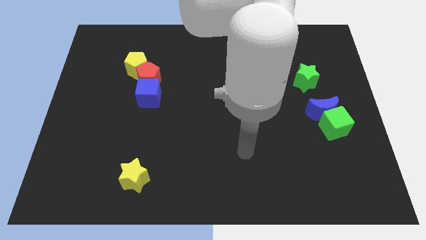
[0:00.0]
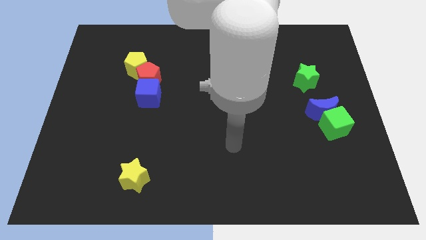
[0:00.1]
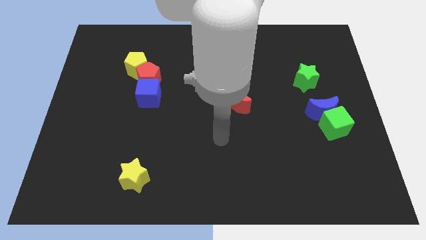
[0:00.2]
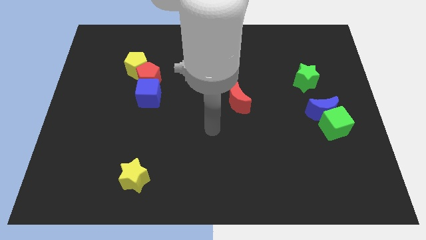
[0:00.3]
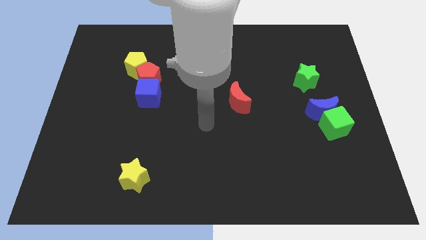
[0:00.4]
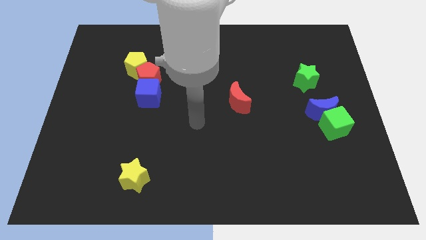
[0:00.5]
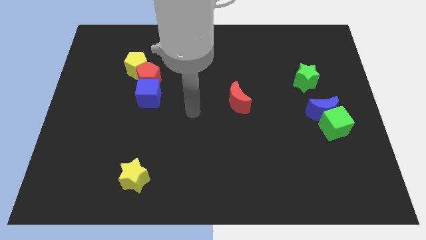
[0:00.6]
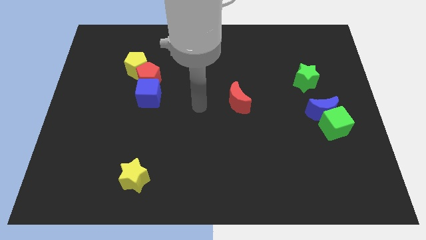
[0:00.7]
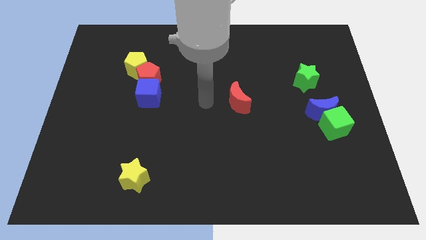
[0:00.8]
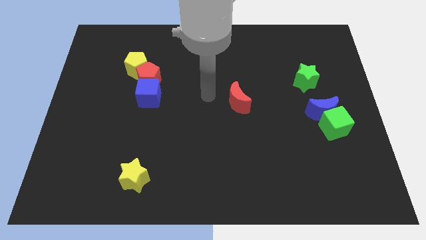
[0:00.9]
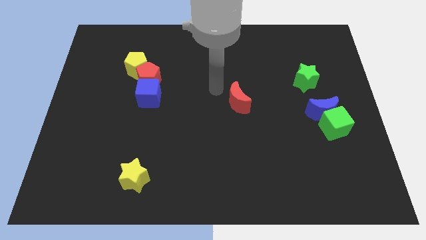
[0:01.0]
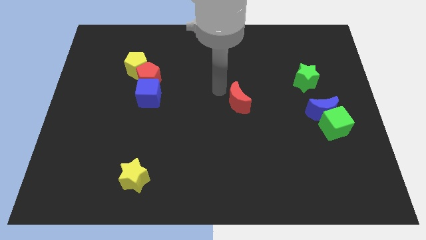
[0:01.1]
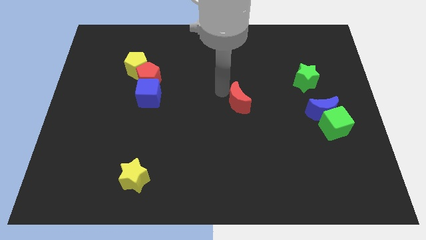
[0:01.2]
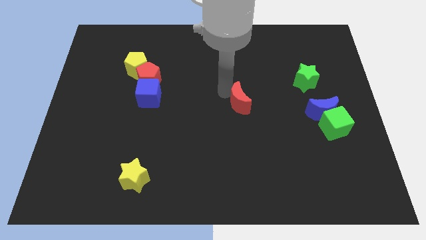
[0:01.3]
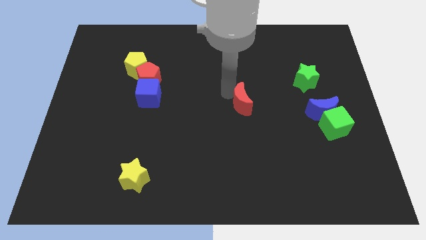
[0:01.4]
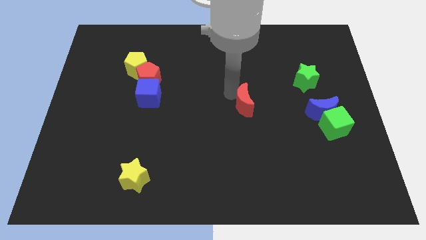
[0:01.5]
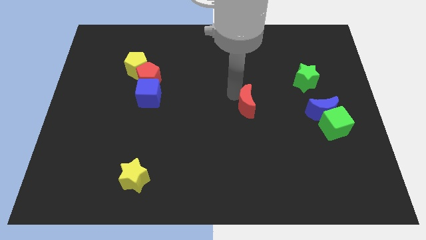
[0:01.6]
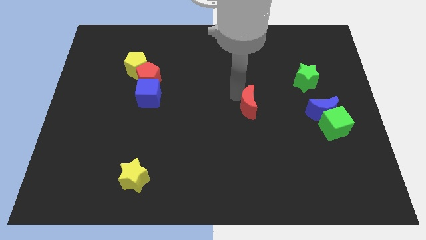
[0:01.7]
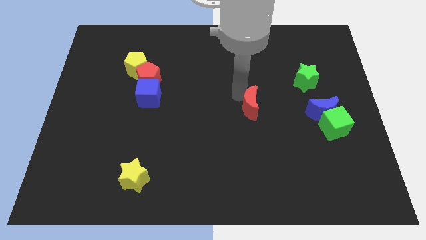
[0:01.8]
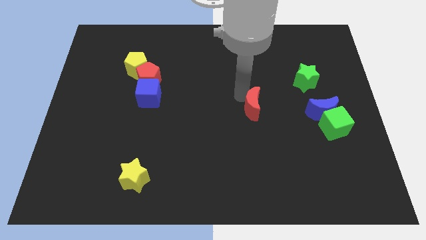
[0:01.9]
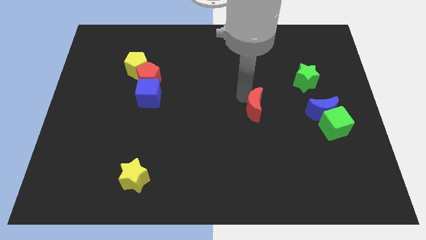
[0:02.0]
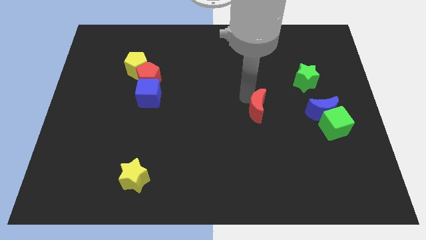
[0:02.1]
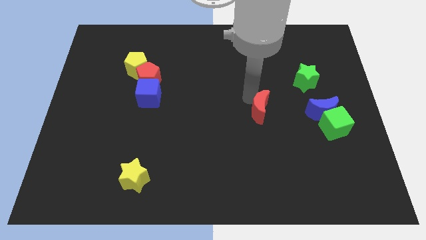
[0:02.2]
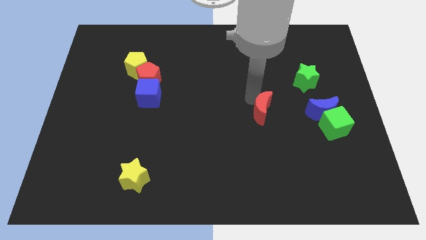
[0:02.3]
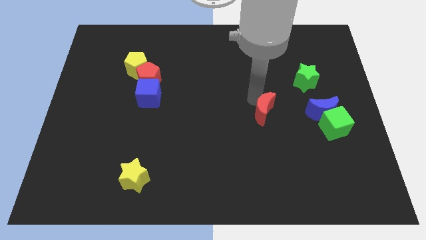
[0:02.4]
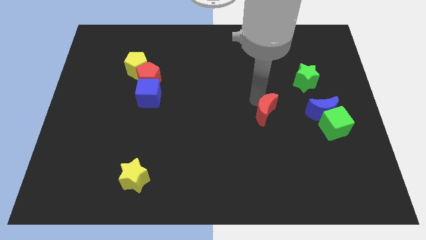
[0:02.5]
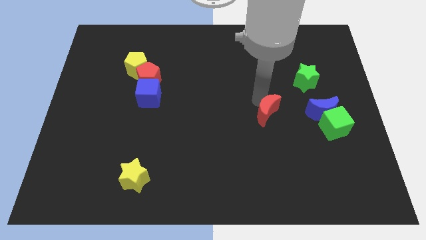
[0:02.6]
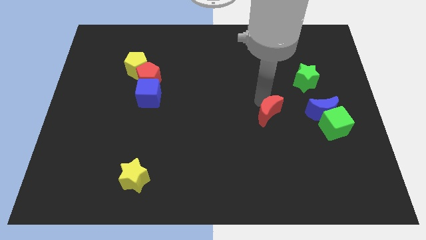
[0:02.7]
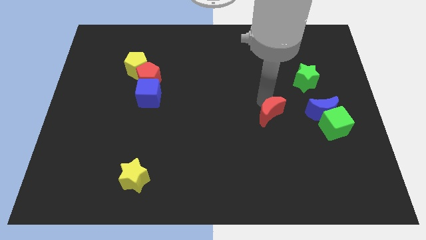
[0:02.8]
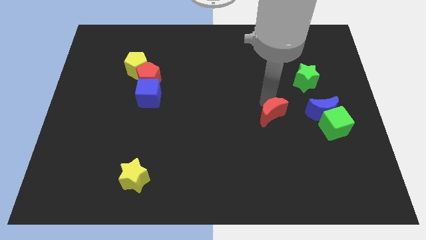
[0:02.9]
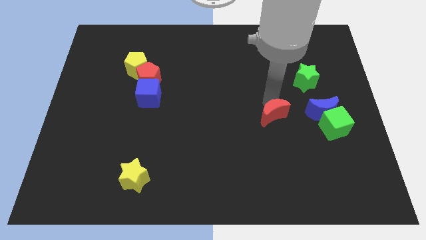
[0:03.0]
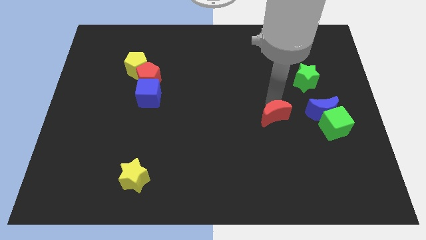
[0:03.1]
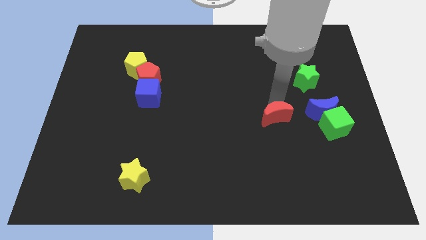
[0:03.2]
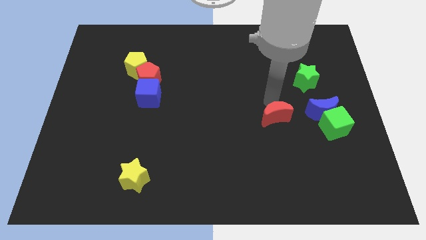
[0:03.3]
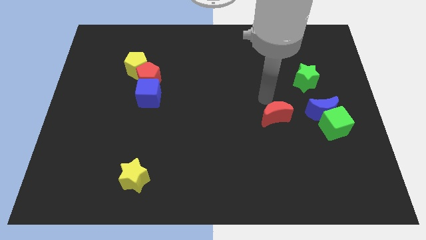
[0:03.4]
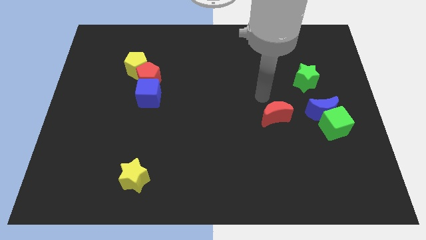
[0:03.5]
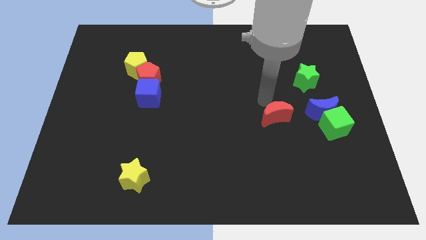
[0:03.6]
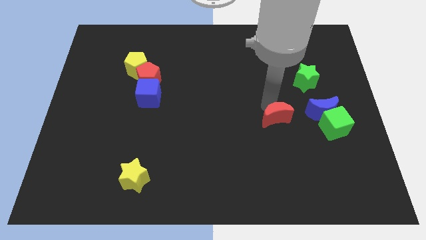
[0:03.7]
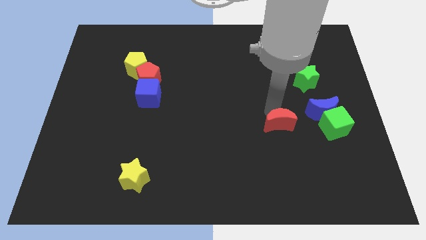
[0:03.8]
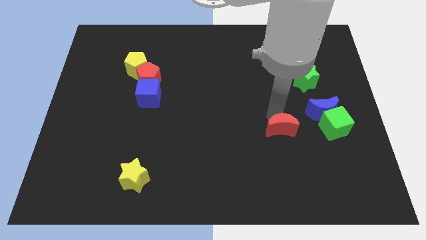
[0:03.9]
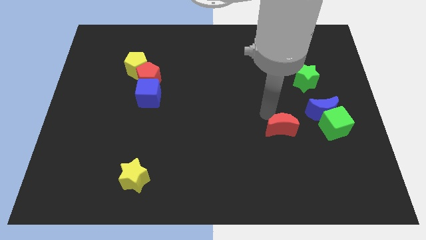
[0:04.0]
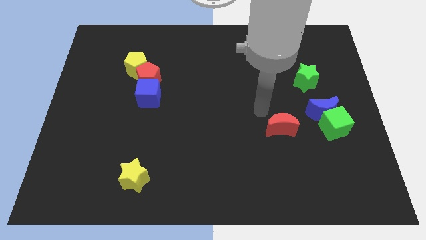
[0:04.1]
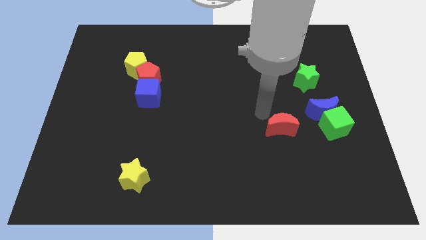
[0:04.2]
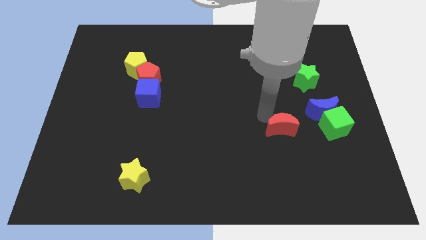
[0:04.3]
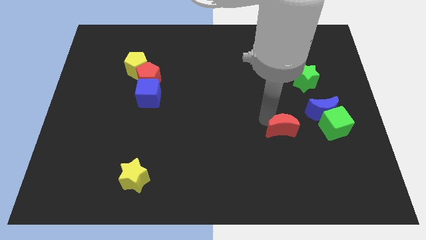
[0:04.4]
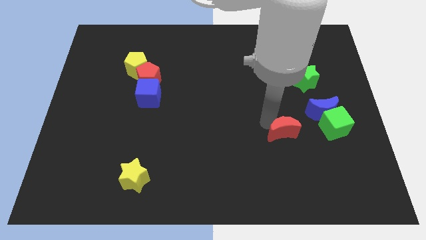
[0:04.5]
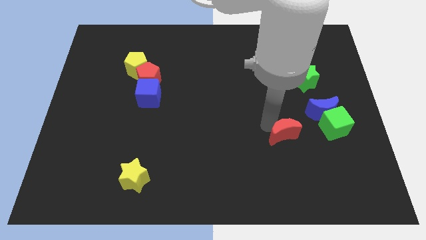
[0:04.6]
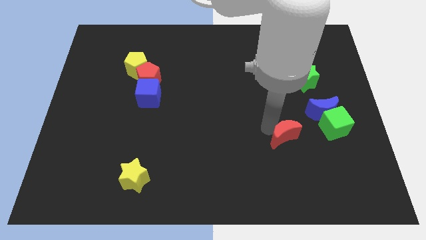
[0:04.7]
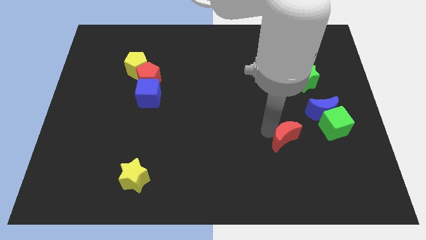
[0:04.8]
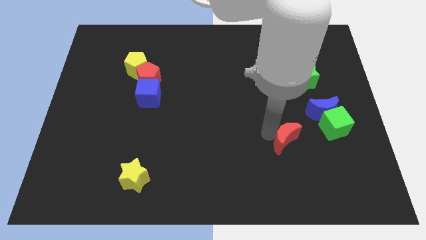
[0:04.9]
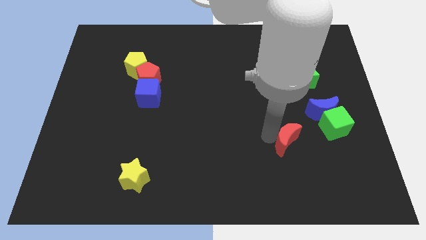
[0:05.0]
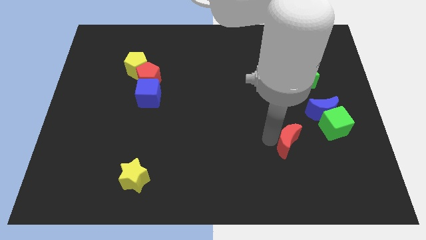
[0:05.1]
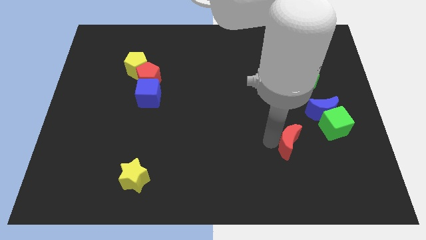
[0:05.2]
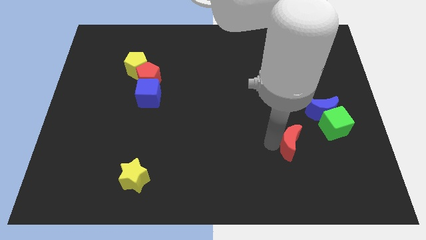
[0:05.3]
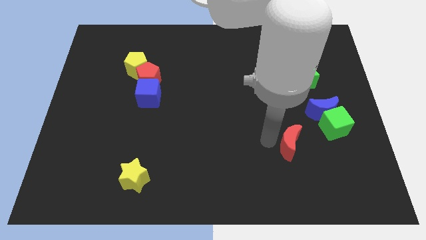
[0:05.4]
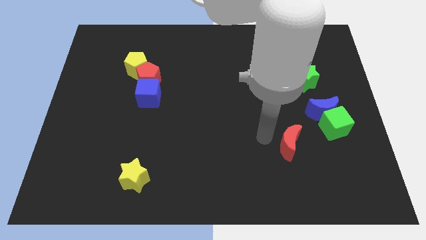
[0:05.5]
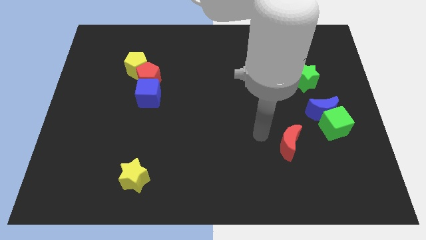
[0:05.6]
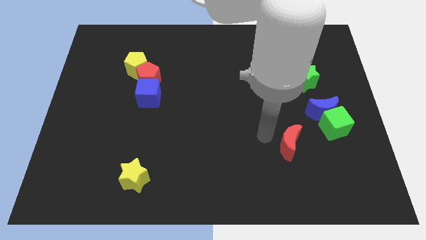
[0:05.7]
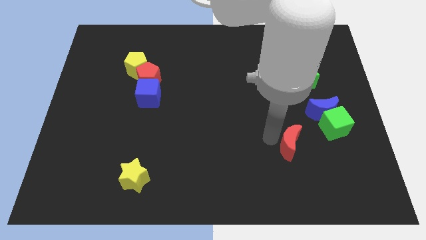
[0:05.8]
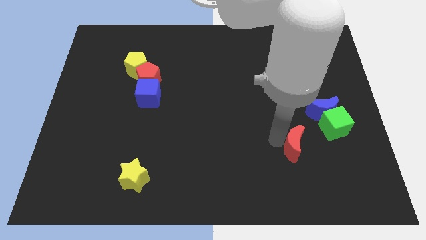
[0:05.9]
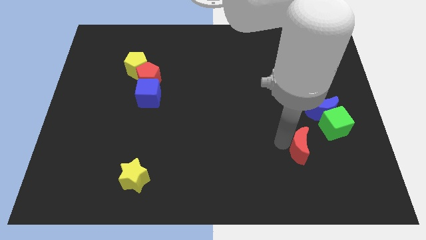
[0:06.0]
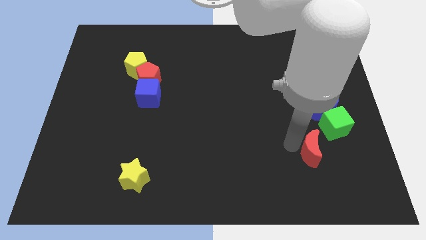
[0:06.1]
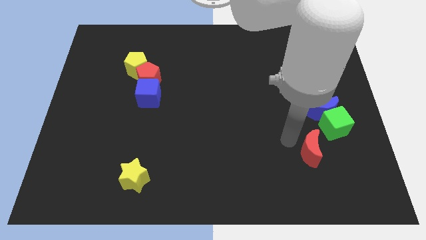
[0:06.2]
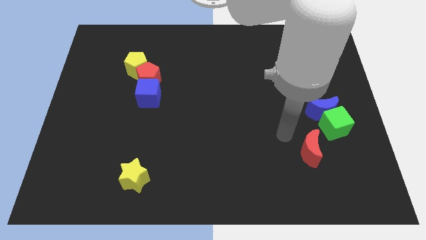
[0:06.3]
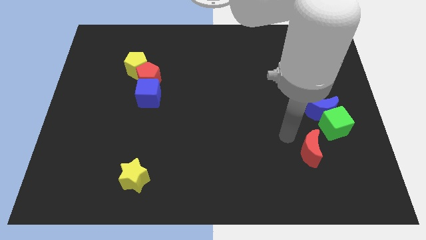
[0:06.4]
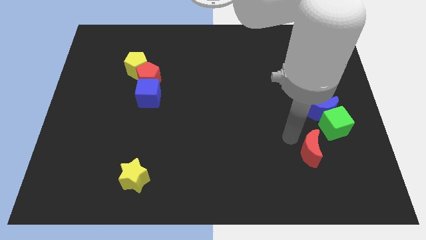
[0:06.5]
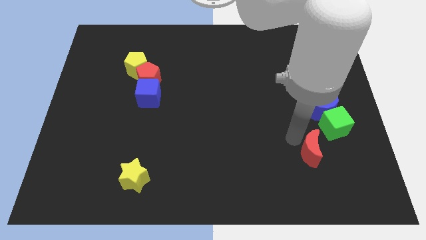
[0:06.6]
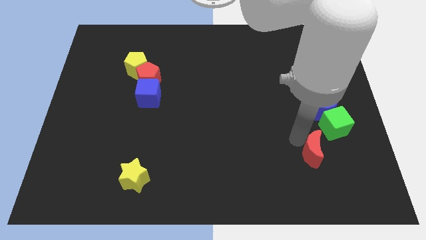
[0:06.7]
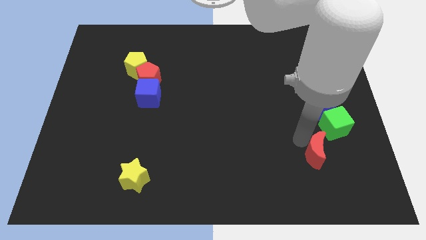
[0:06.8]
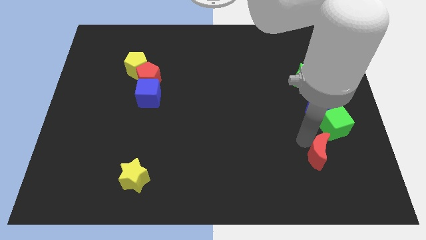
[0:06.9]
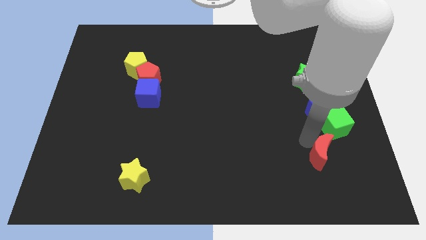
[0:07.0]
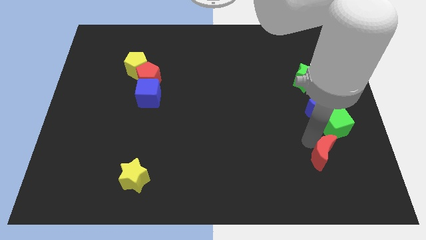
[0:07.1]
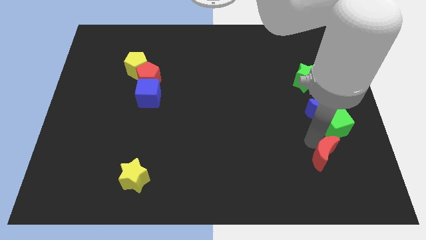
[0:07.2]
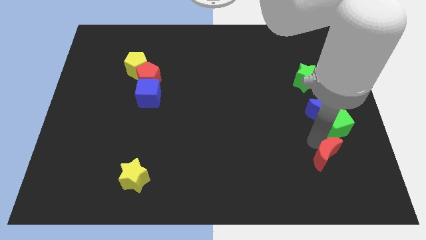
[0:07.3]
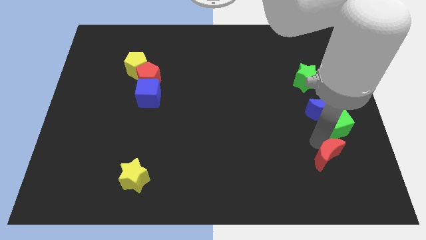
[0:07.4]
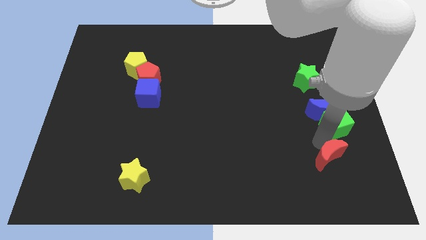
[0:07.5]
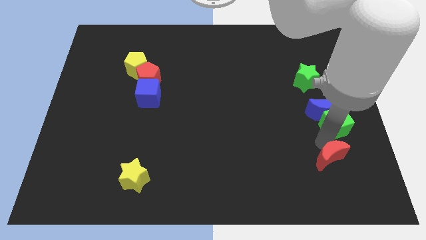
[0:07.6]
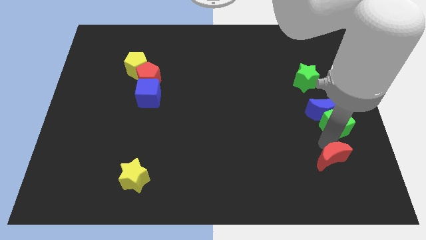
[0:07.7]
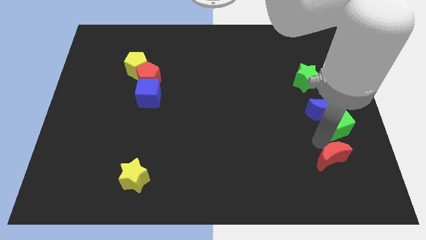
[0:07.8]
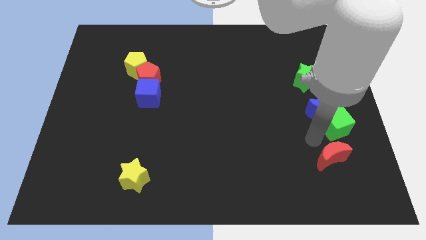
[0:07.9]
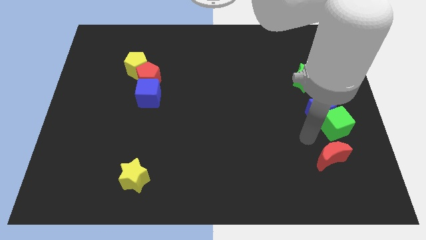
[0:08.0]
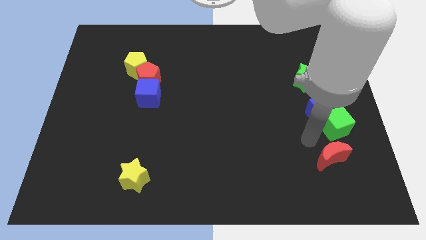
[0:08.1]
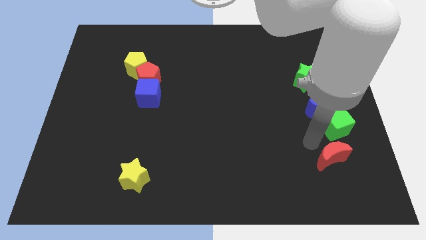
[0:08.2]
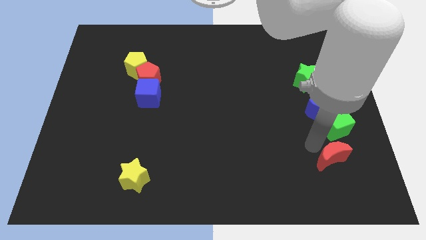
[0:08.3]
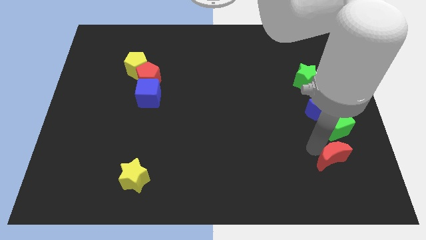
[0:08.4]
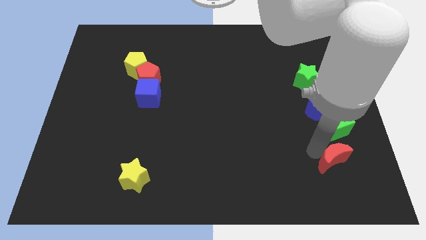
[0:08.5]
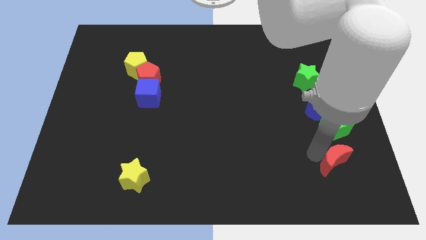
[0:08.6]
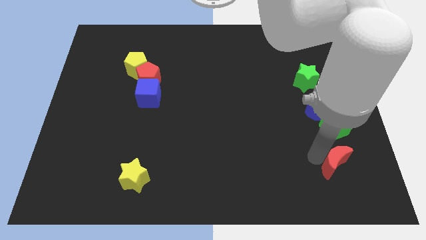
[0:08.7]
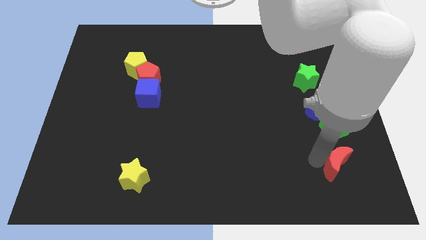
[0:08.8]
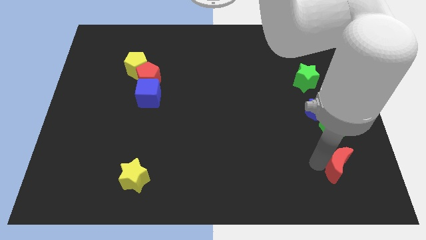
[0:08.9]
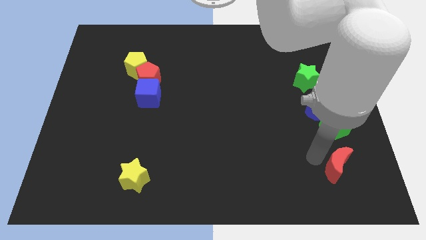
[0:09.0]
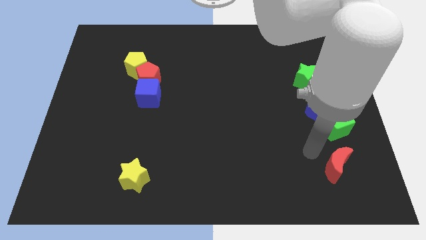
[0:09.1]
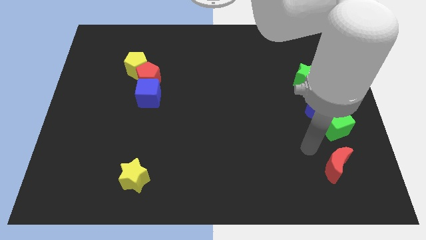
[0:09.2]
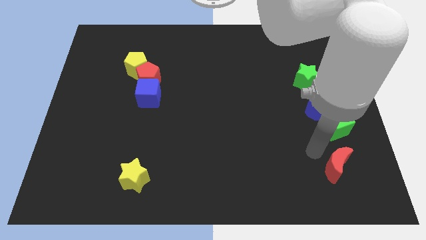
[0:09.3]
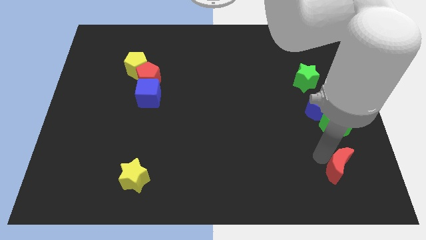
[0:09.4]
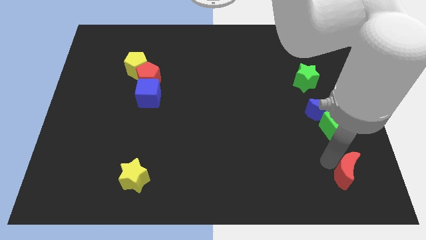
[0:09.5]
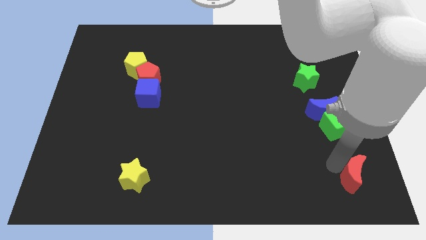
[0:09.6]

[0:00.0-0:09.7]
push the red moon to the bottom right of the board
